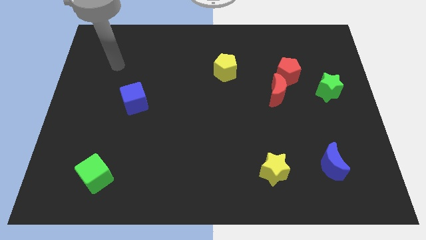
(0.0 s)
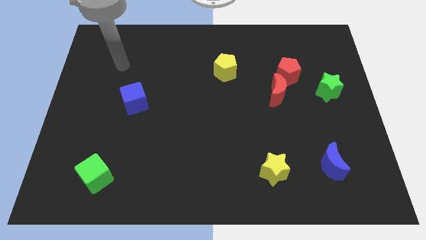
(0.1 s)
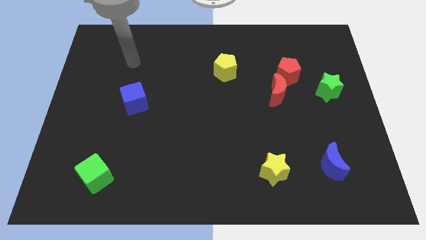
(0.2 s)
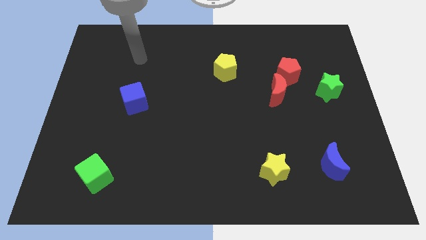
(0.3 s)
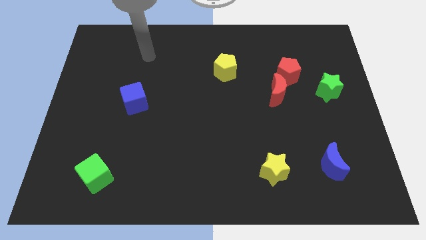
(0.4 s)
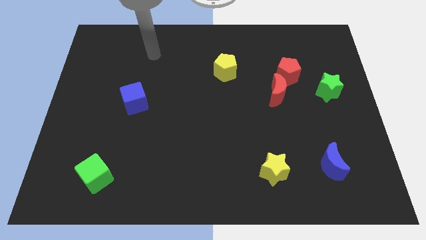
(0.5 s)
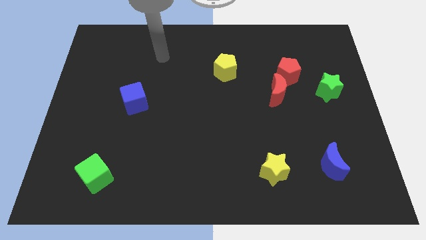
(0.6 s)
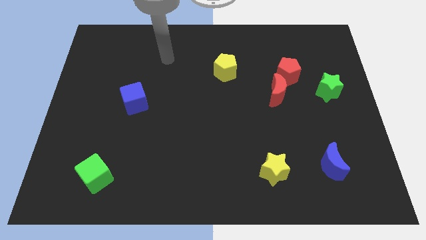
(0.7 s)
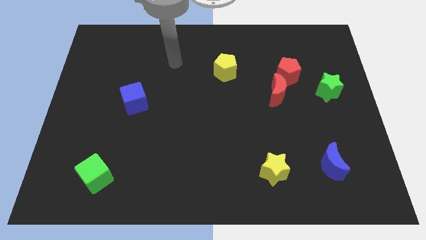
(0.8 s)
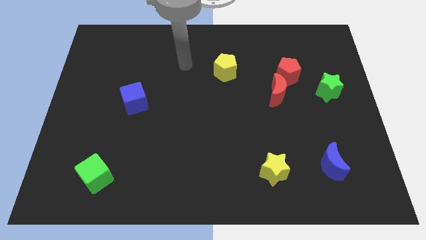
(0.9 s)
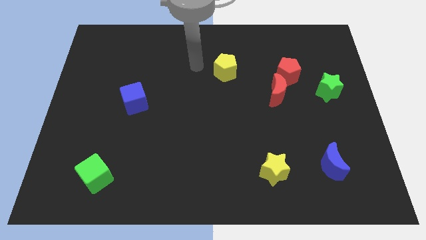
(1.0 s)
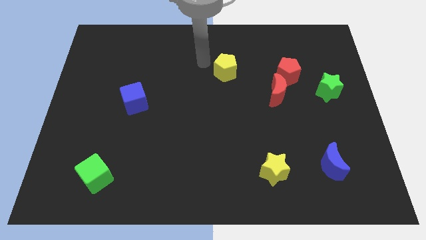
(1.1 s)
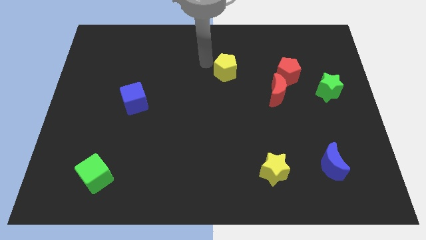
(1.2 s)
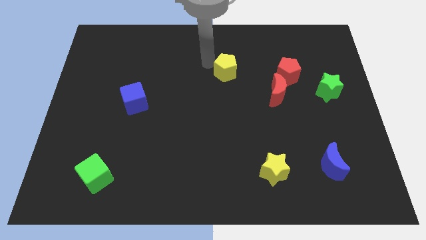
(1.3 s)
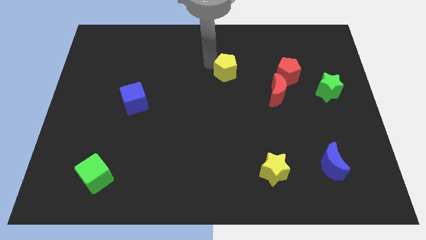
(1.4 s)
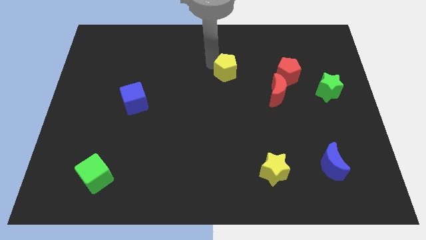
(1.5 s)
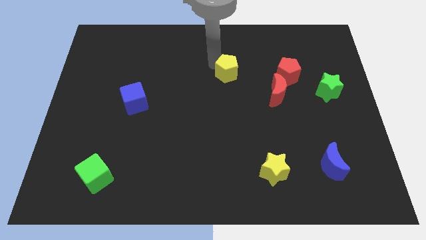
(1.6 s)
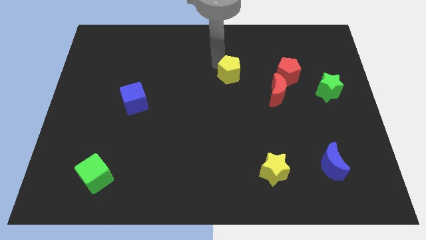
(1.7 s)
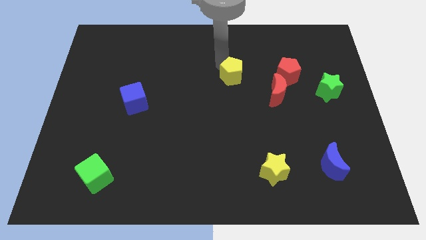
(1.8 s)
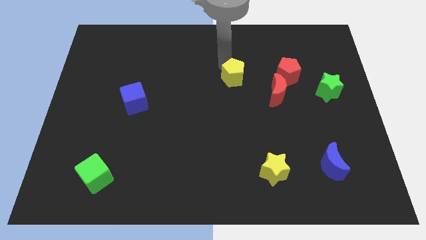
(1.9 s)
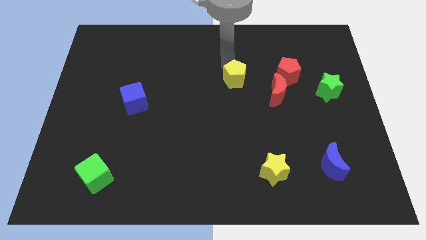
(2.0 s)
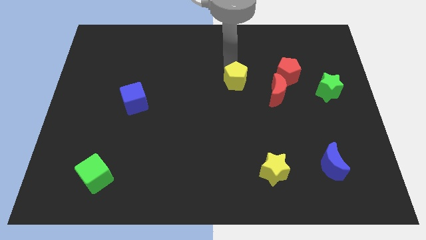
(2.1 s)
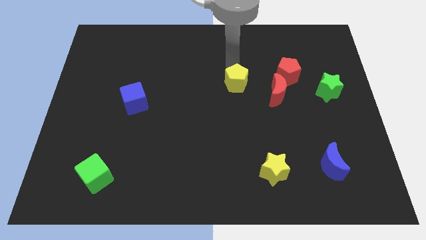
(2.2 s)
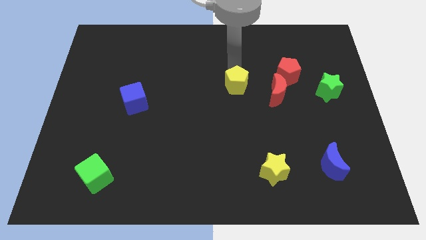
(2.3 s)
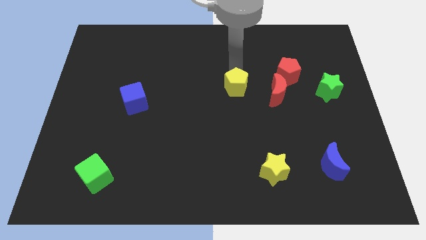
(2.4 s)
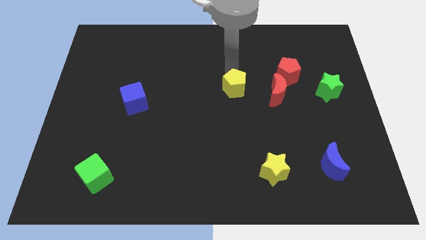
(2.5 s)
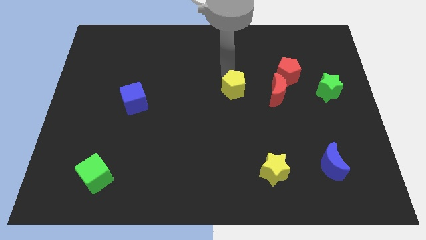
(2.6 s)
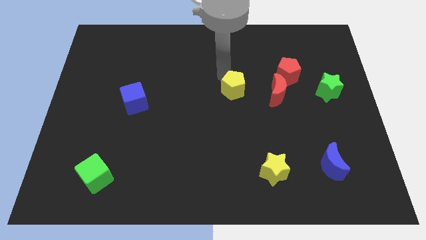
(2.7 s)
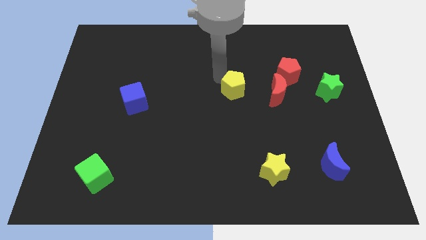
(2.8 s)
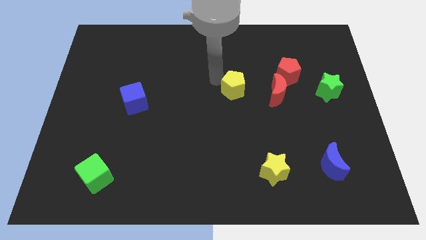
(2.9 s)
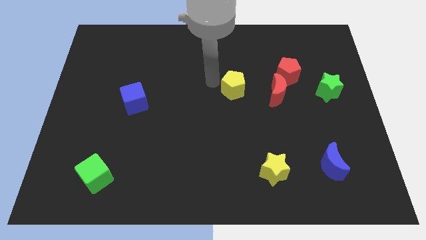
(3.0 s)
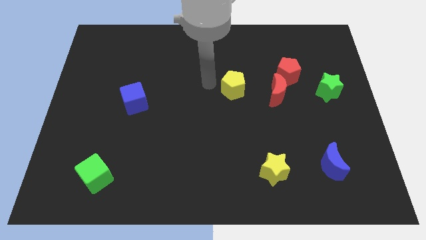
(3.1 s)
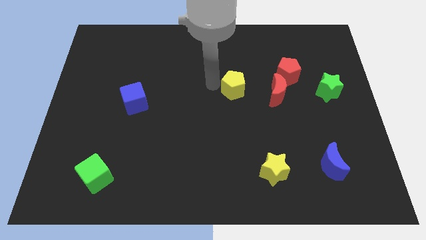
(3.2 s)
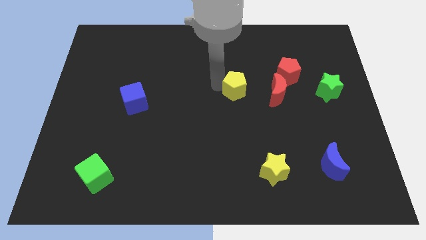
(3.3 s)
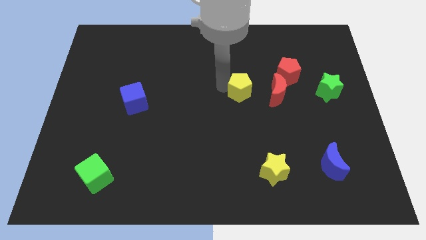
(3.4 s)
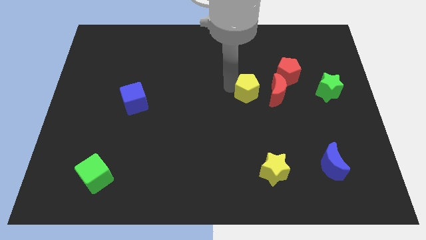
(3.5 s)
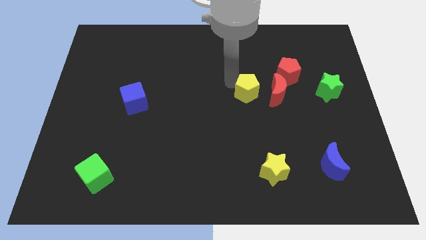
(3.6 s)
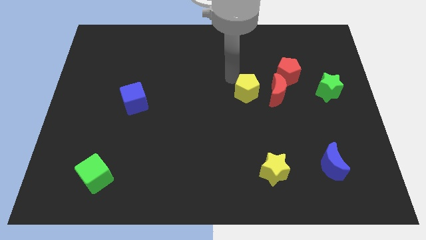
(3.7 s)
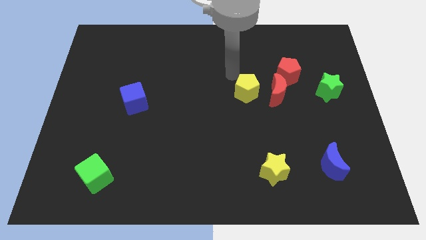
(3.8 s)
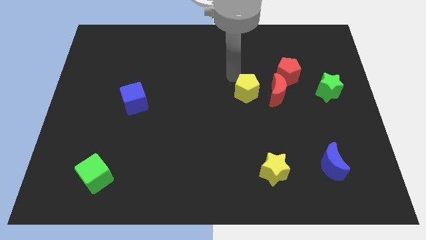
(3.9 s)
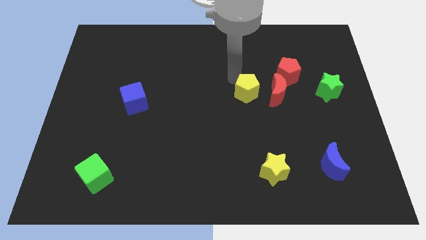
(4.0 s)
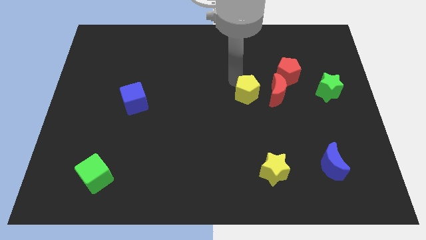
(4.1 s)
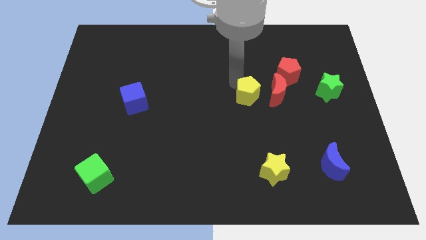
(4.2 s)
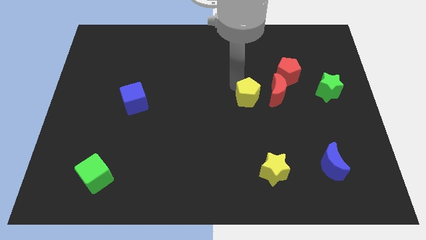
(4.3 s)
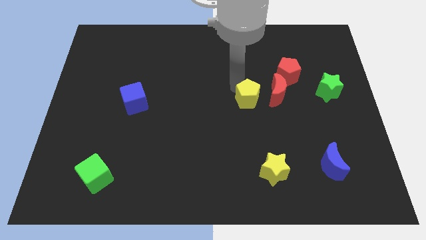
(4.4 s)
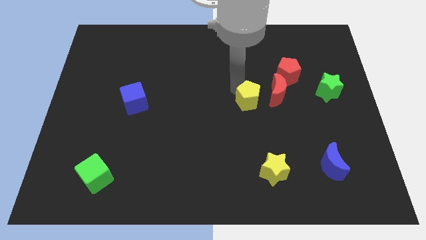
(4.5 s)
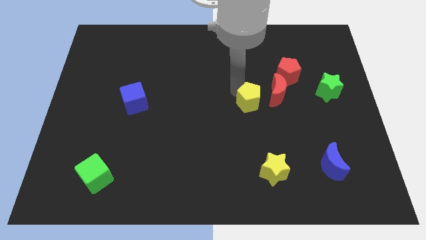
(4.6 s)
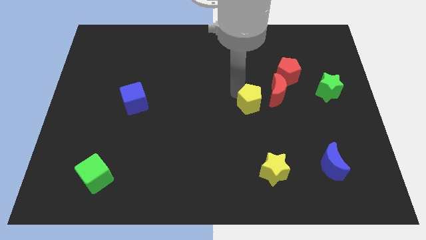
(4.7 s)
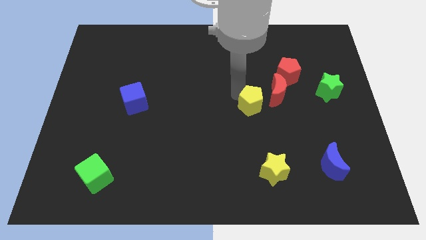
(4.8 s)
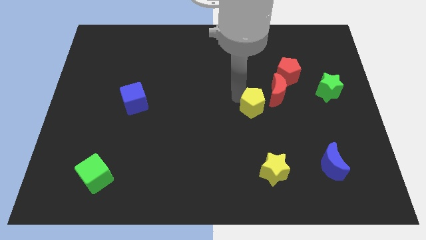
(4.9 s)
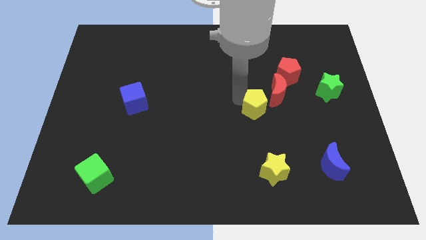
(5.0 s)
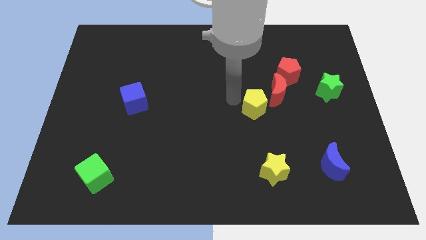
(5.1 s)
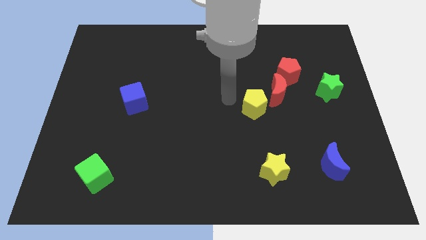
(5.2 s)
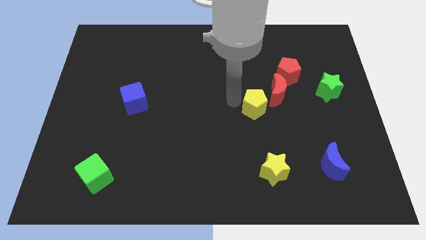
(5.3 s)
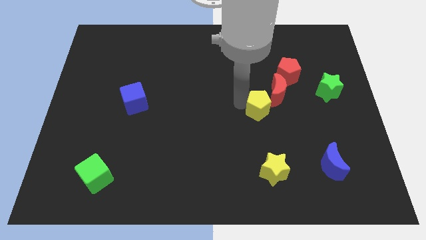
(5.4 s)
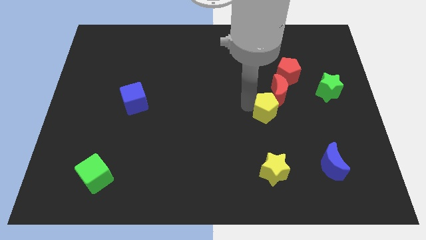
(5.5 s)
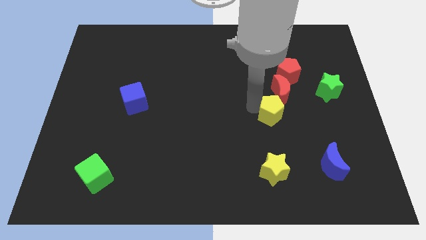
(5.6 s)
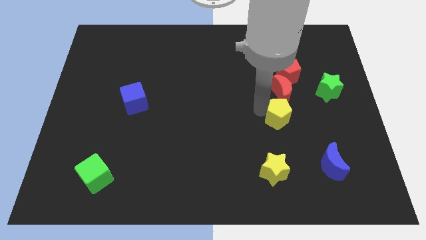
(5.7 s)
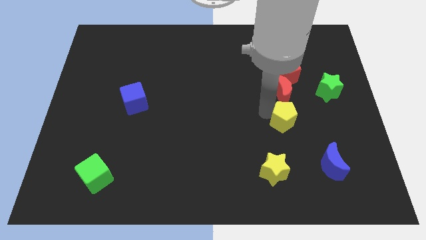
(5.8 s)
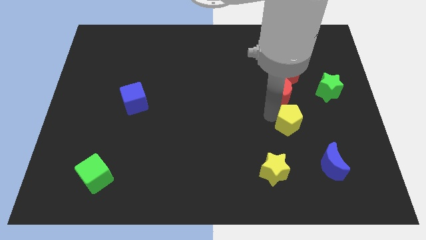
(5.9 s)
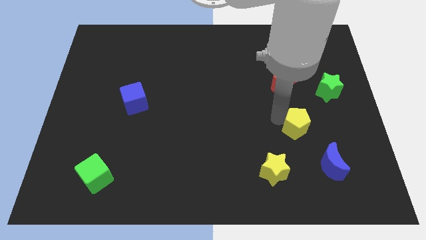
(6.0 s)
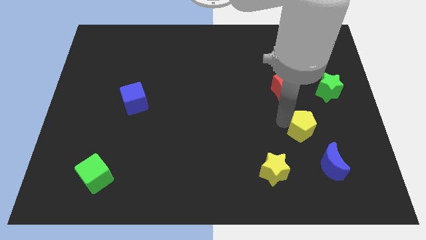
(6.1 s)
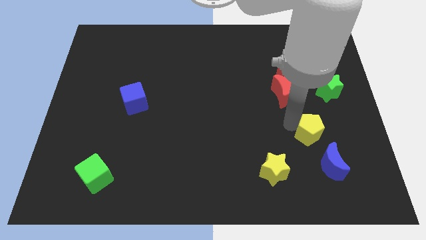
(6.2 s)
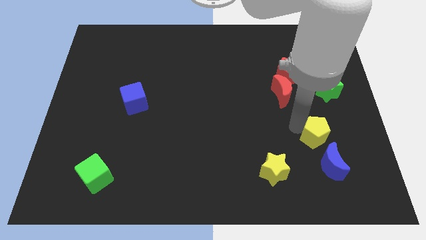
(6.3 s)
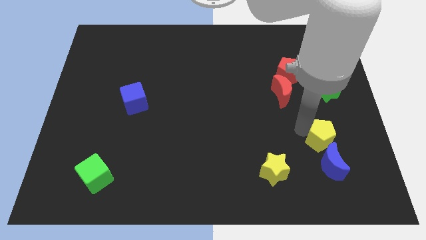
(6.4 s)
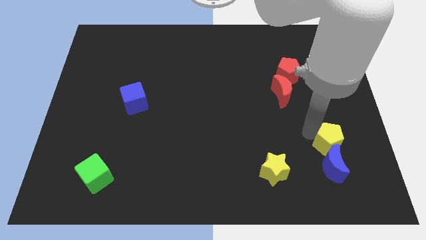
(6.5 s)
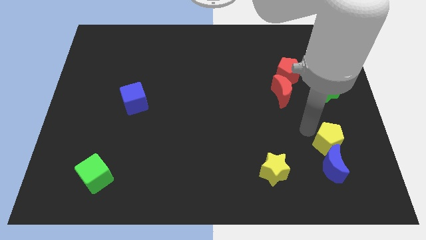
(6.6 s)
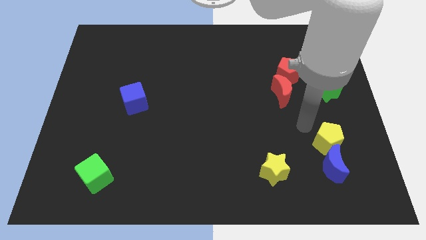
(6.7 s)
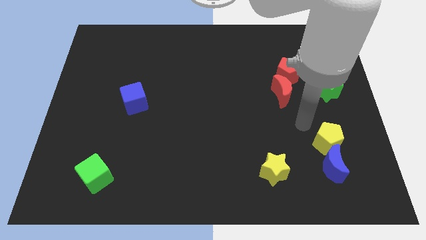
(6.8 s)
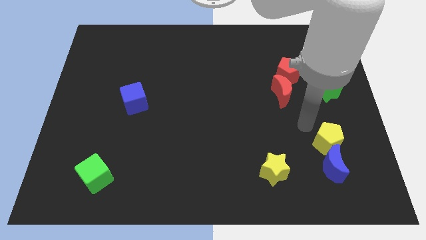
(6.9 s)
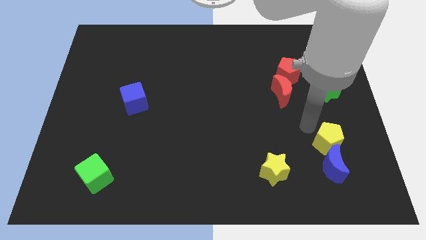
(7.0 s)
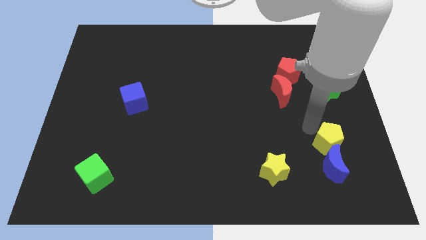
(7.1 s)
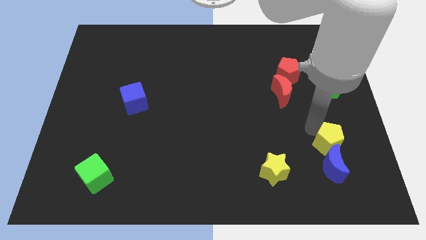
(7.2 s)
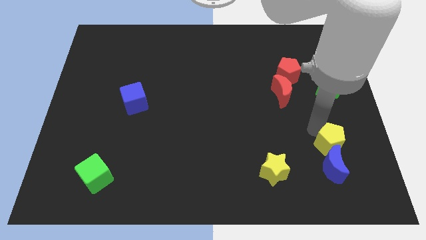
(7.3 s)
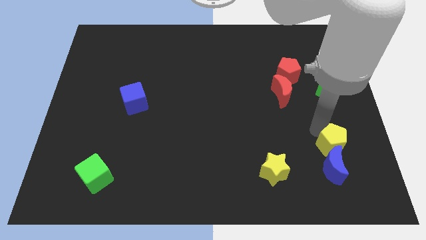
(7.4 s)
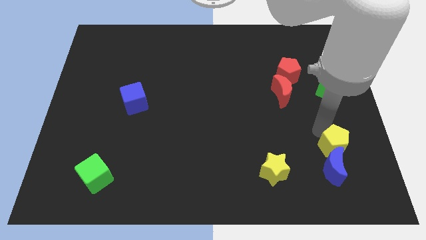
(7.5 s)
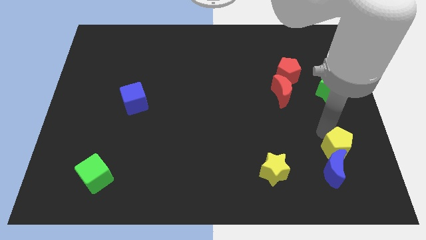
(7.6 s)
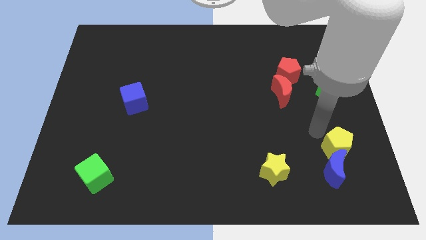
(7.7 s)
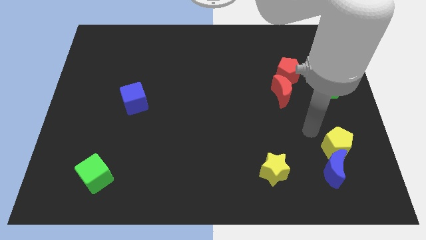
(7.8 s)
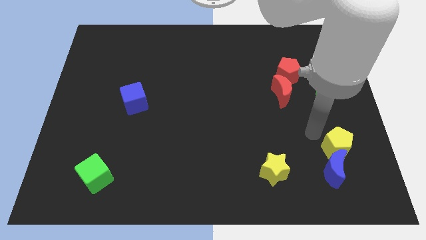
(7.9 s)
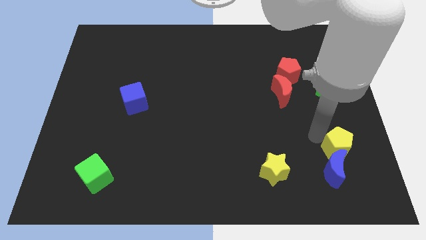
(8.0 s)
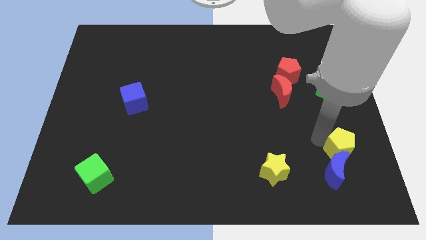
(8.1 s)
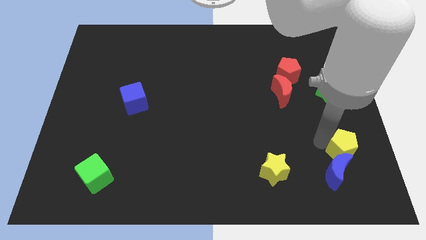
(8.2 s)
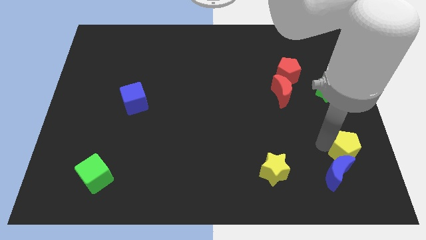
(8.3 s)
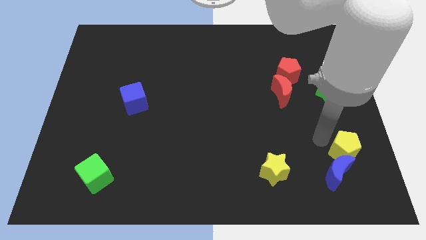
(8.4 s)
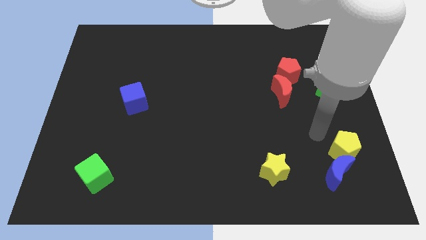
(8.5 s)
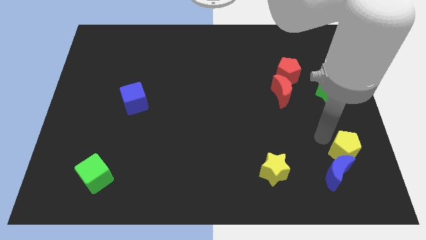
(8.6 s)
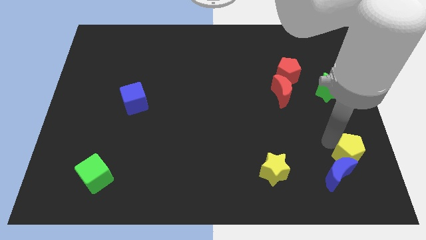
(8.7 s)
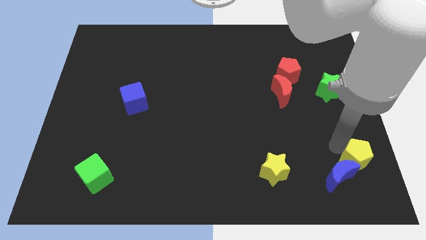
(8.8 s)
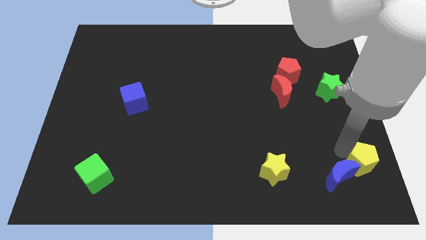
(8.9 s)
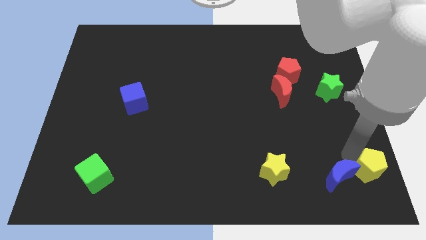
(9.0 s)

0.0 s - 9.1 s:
move the yellow pentagon to the lower right corner
